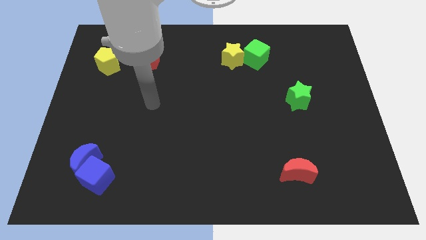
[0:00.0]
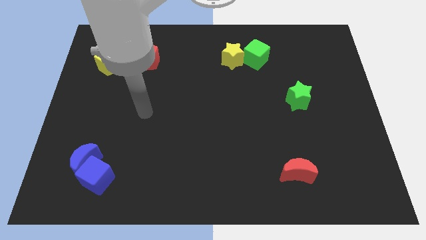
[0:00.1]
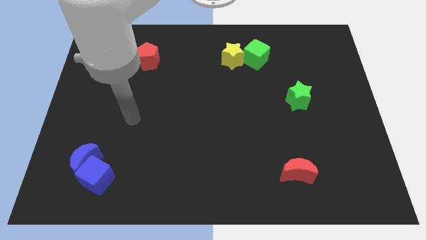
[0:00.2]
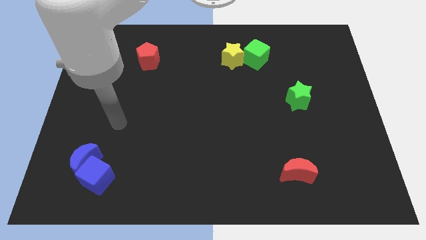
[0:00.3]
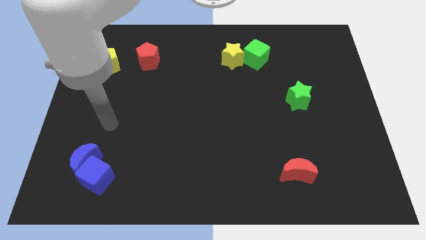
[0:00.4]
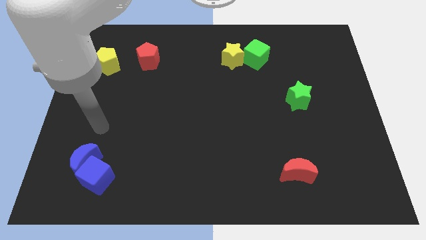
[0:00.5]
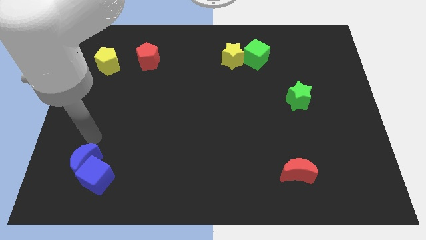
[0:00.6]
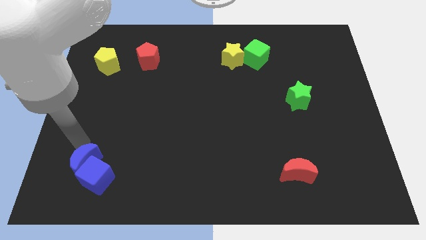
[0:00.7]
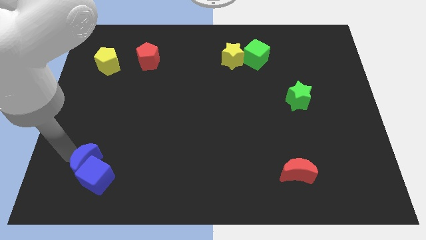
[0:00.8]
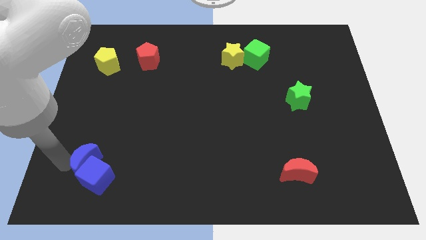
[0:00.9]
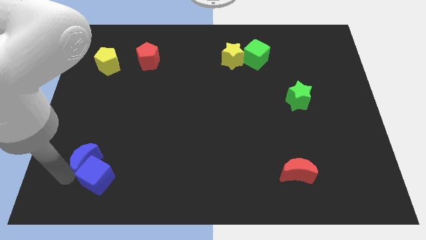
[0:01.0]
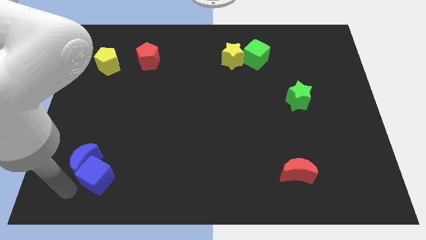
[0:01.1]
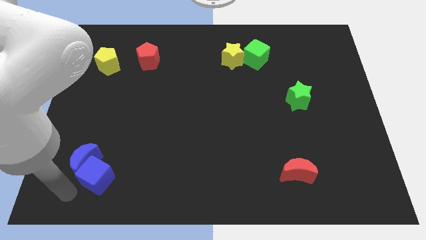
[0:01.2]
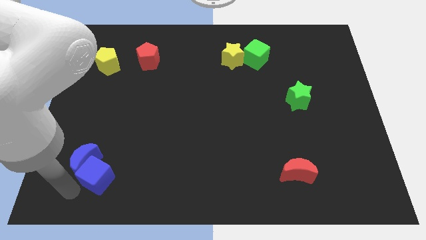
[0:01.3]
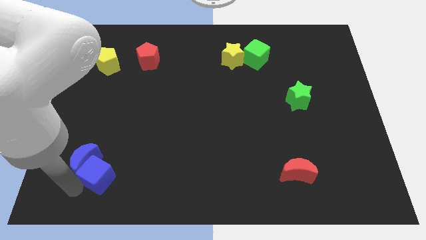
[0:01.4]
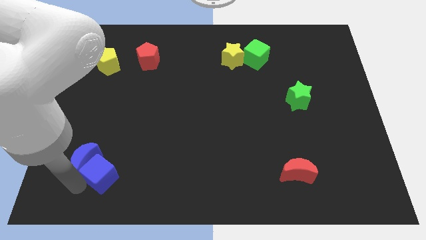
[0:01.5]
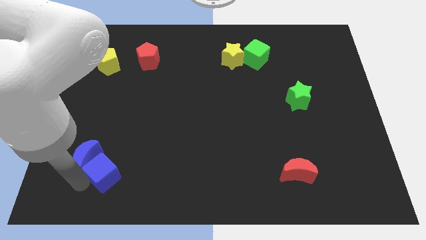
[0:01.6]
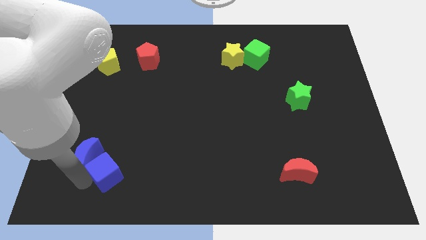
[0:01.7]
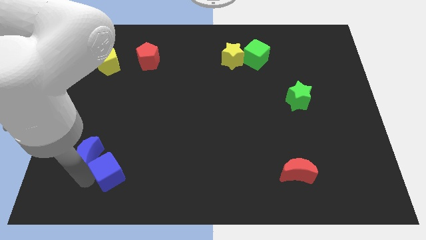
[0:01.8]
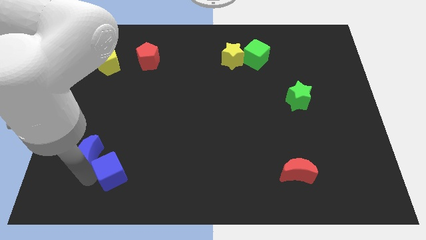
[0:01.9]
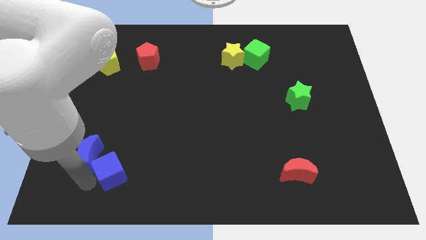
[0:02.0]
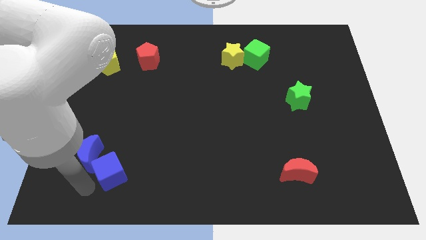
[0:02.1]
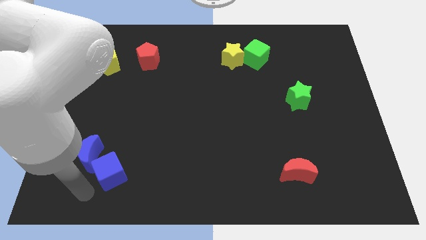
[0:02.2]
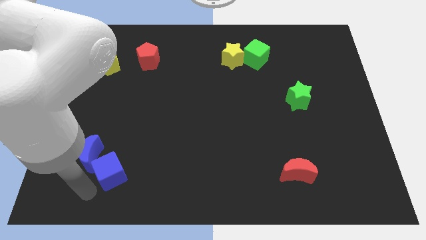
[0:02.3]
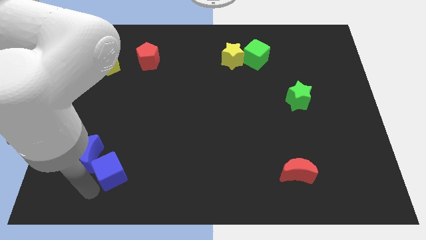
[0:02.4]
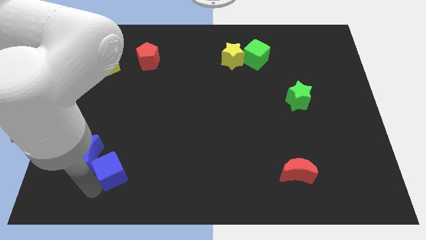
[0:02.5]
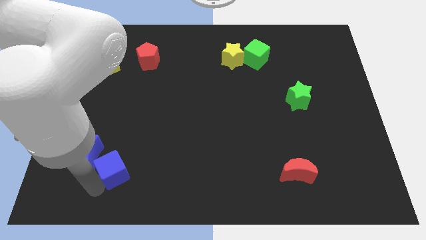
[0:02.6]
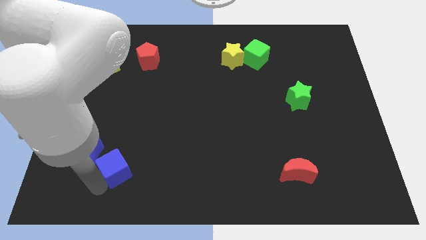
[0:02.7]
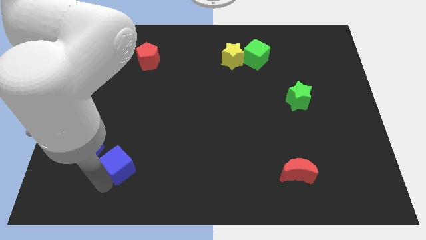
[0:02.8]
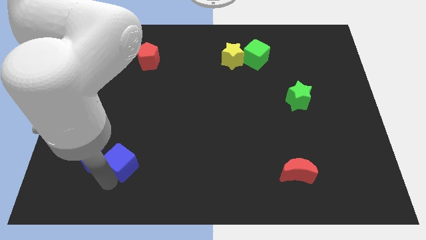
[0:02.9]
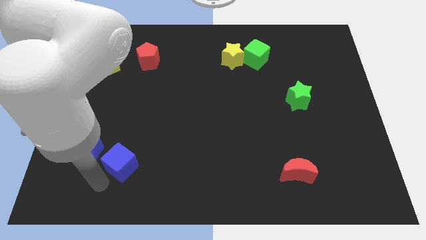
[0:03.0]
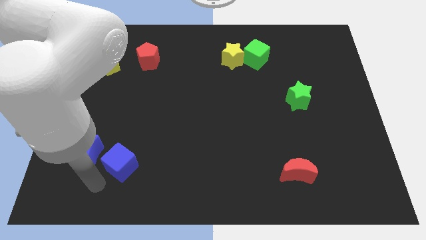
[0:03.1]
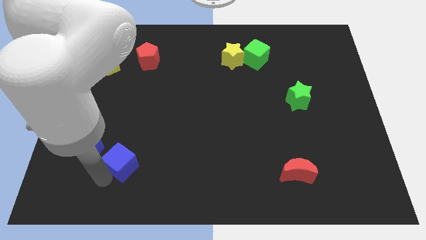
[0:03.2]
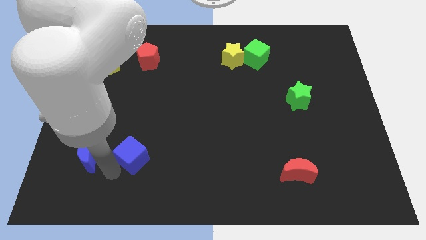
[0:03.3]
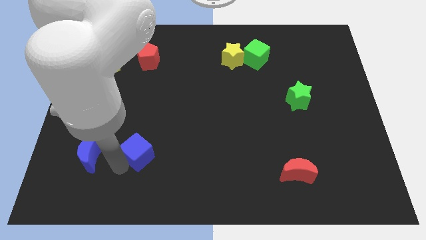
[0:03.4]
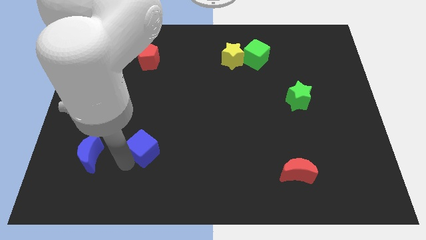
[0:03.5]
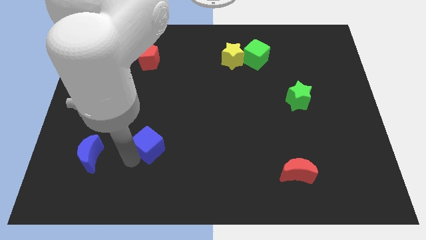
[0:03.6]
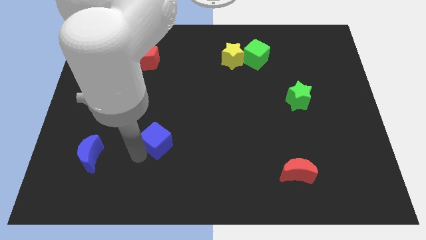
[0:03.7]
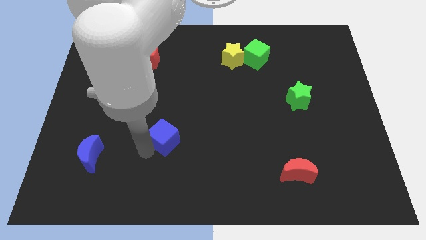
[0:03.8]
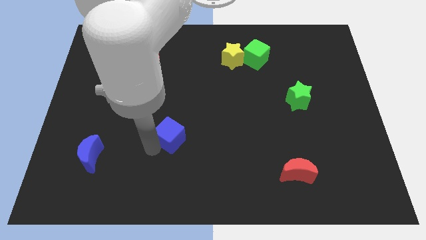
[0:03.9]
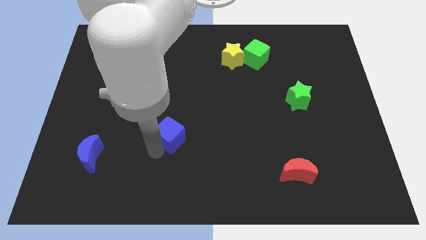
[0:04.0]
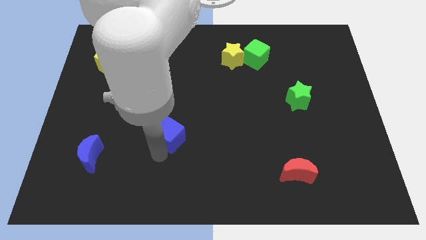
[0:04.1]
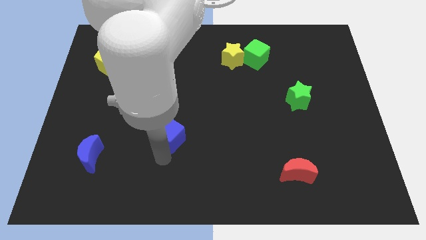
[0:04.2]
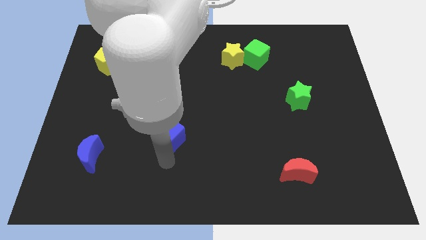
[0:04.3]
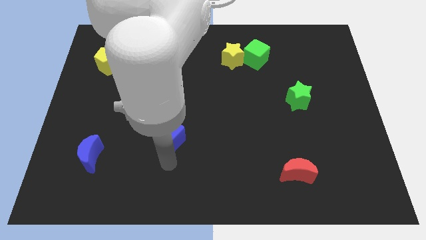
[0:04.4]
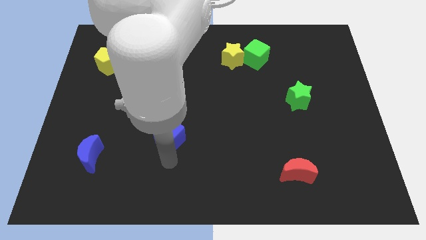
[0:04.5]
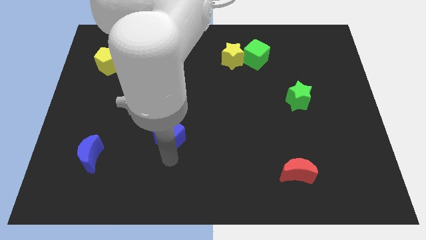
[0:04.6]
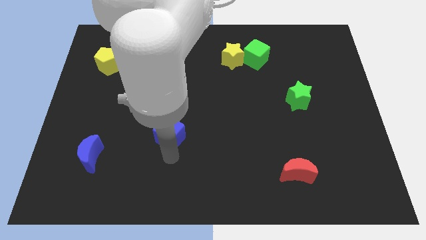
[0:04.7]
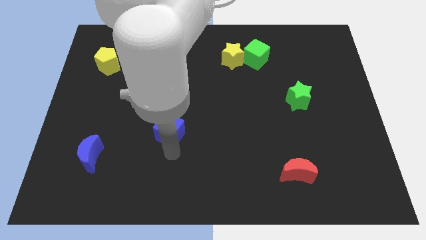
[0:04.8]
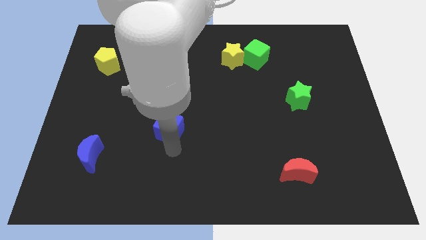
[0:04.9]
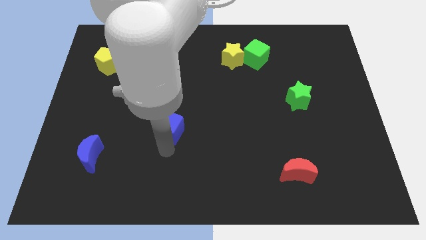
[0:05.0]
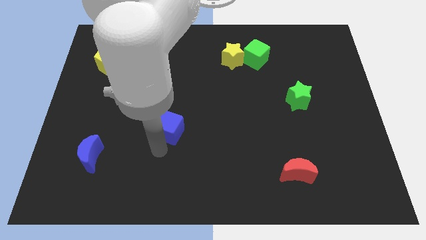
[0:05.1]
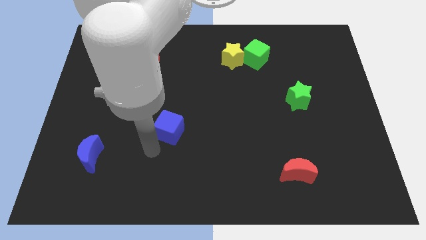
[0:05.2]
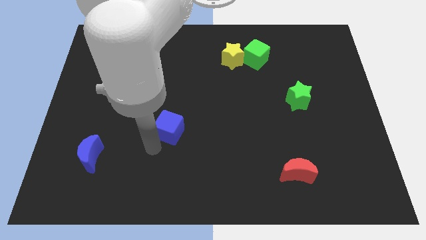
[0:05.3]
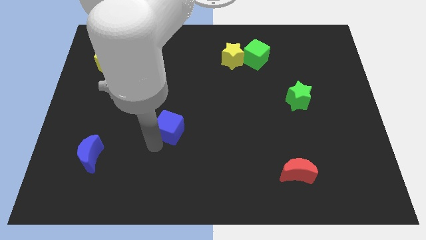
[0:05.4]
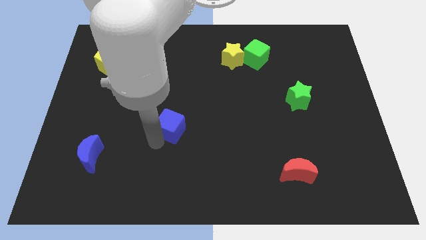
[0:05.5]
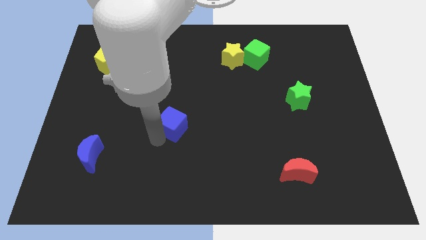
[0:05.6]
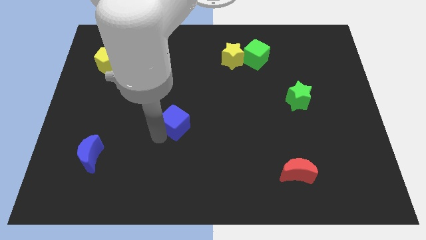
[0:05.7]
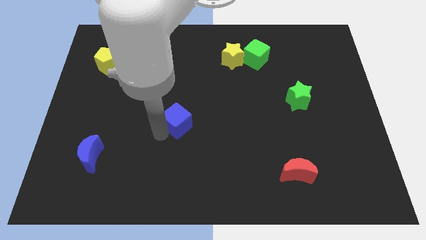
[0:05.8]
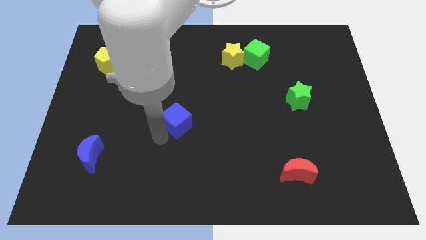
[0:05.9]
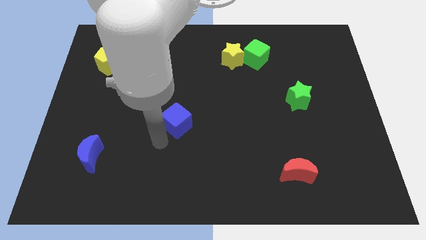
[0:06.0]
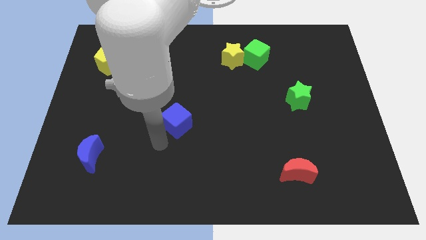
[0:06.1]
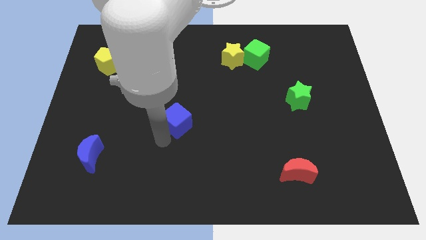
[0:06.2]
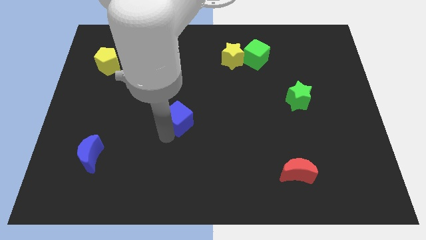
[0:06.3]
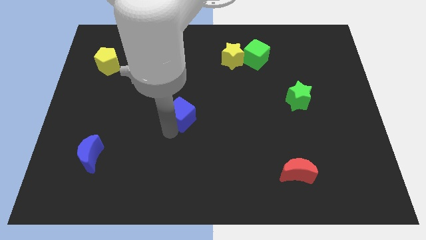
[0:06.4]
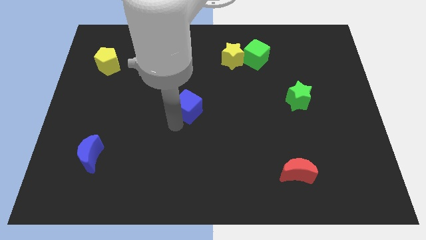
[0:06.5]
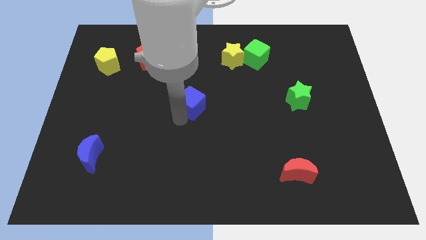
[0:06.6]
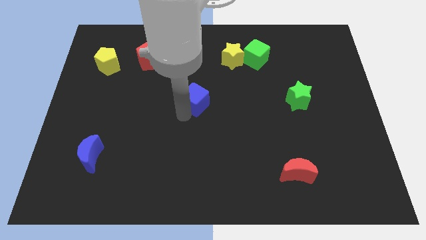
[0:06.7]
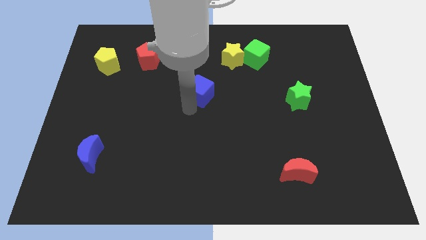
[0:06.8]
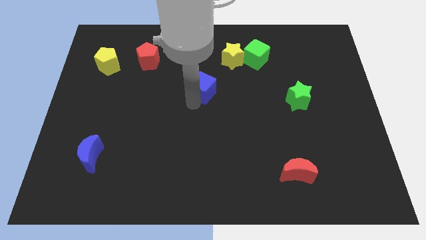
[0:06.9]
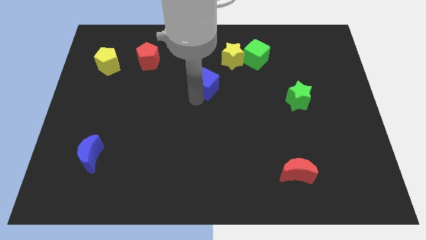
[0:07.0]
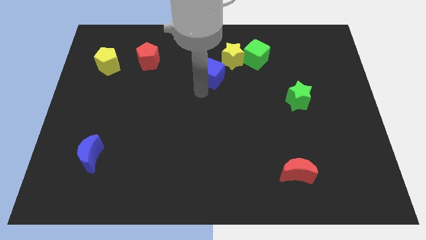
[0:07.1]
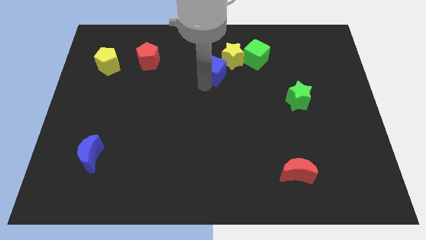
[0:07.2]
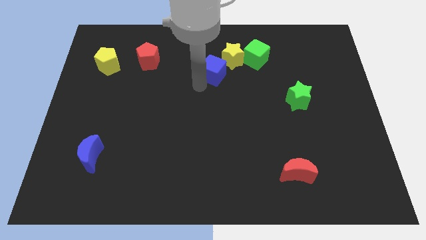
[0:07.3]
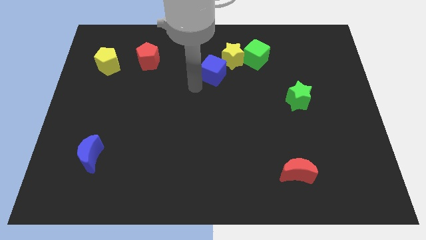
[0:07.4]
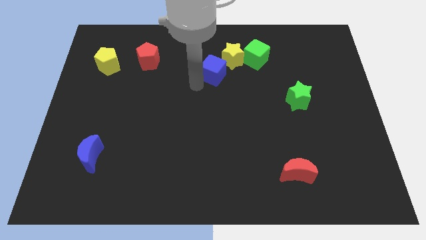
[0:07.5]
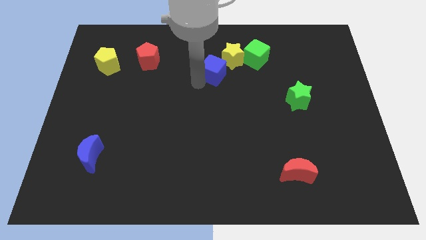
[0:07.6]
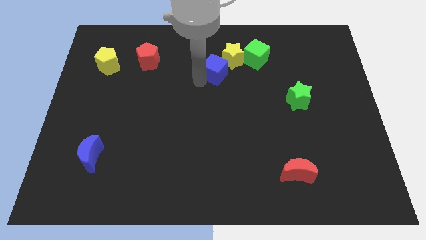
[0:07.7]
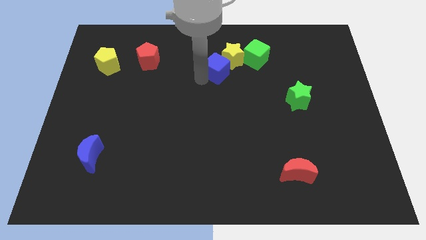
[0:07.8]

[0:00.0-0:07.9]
push the blue cube towards the yellow star
